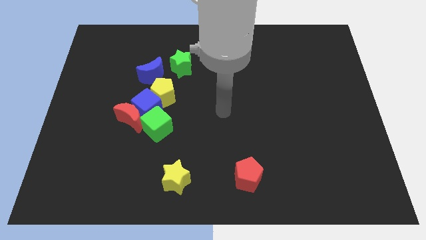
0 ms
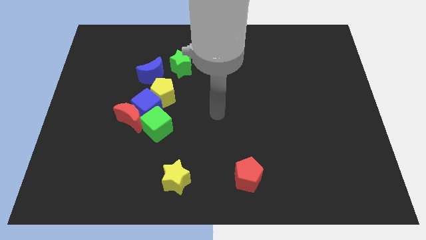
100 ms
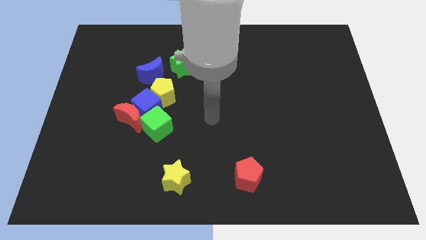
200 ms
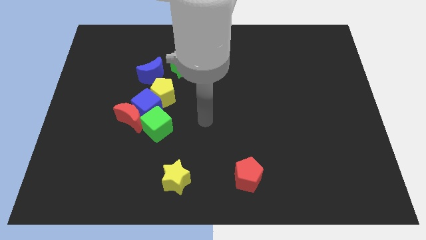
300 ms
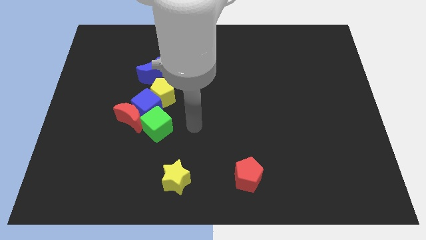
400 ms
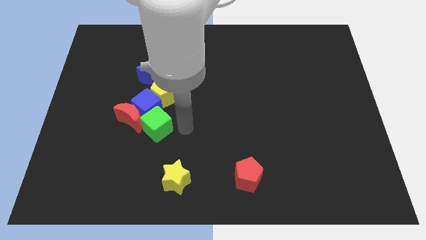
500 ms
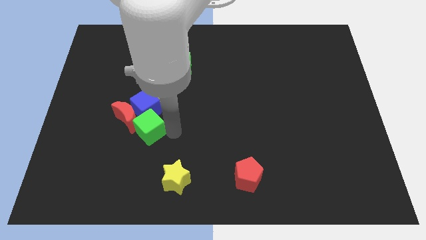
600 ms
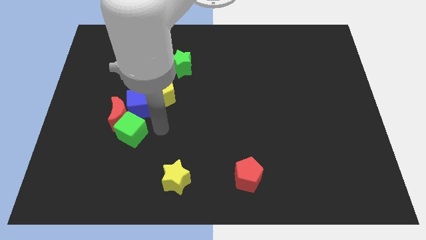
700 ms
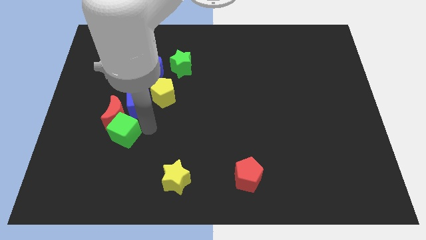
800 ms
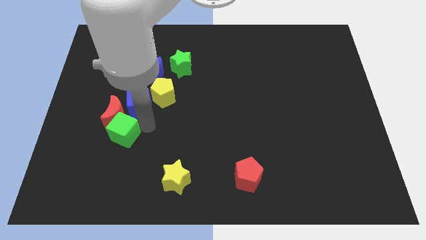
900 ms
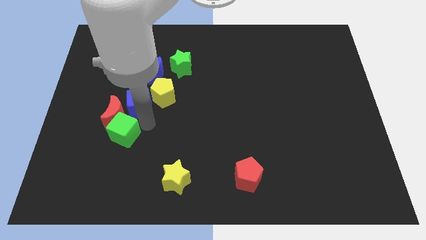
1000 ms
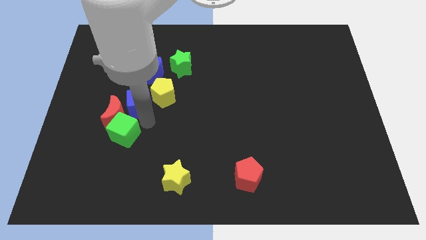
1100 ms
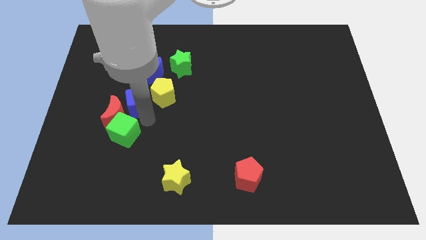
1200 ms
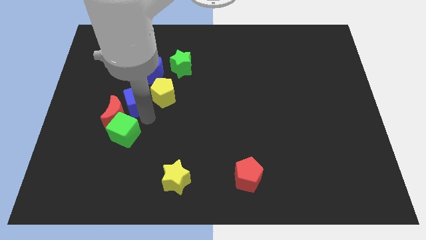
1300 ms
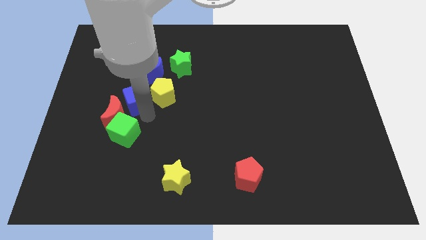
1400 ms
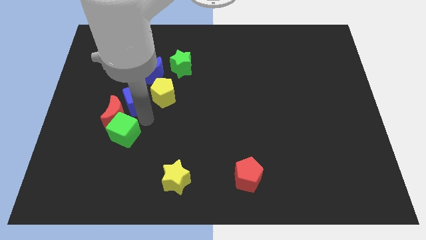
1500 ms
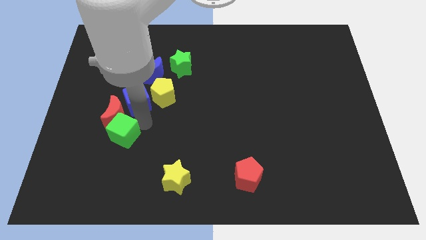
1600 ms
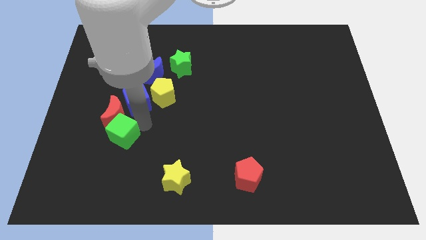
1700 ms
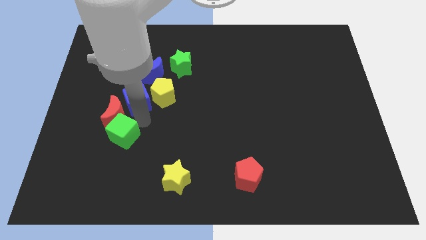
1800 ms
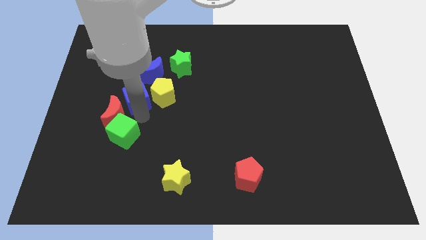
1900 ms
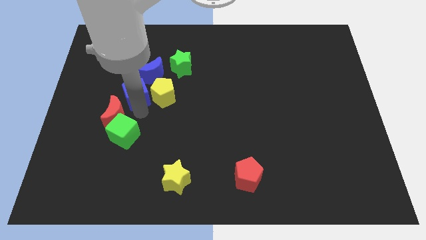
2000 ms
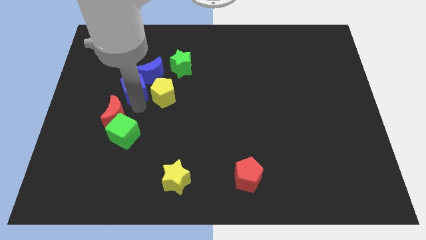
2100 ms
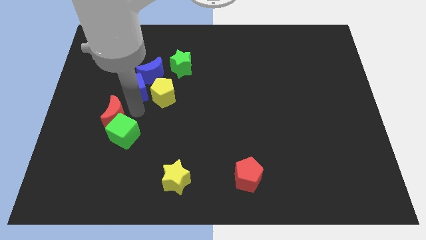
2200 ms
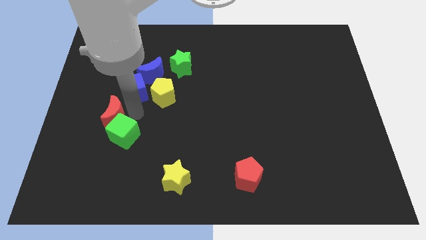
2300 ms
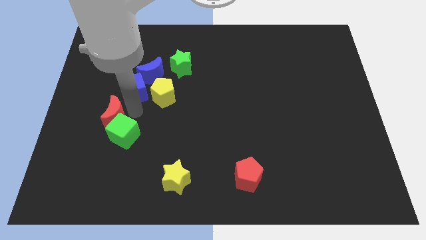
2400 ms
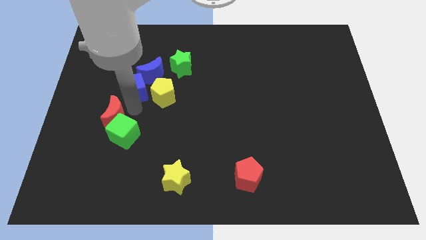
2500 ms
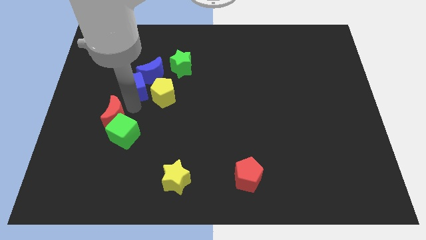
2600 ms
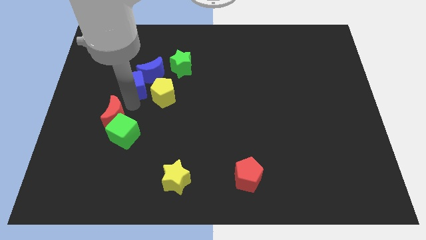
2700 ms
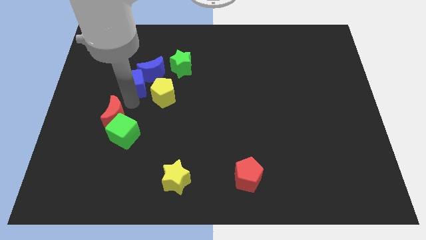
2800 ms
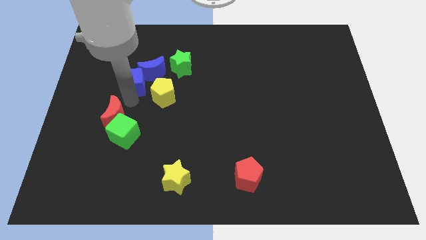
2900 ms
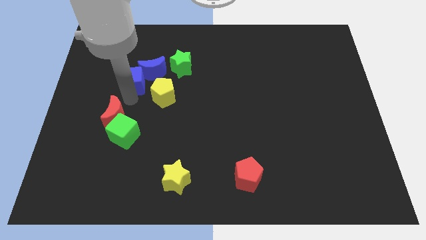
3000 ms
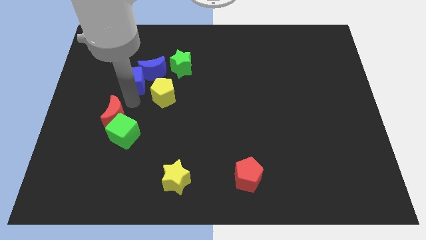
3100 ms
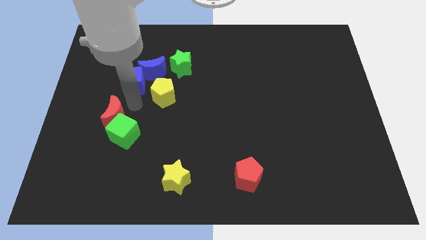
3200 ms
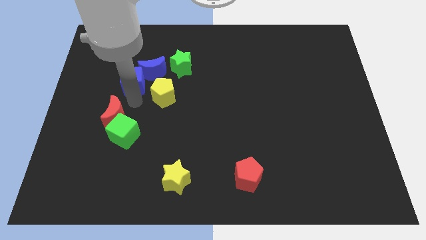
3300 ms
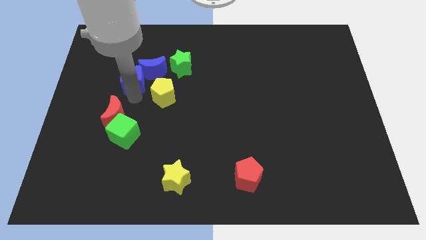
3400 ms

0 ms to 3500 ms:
move the blue cube away from the clump

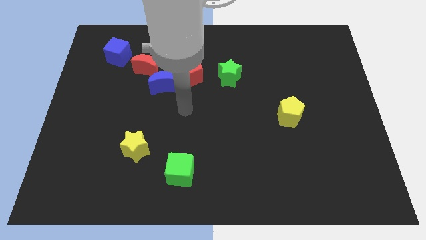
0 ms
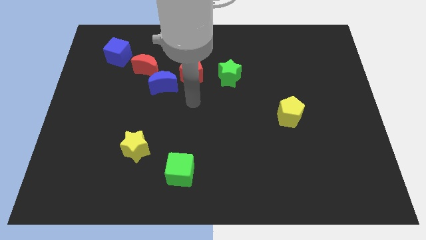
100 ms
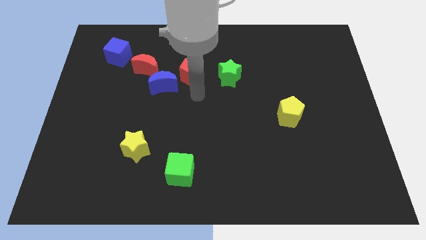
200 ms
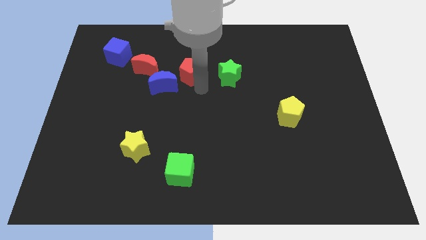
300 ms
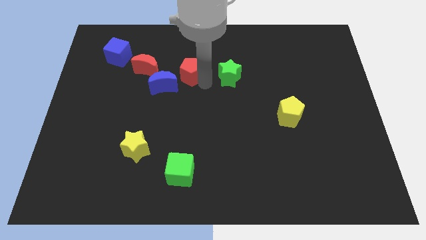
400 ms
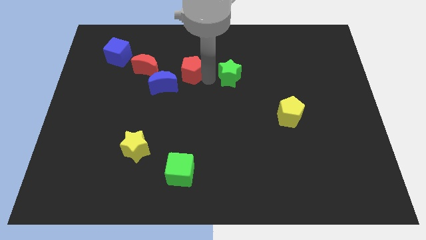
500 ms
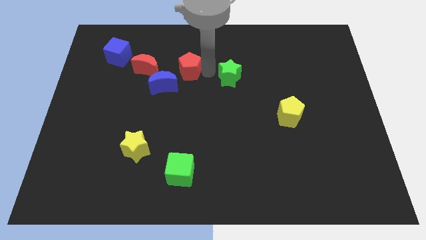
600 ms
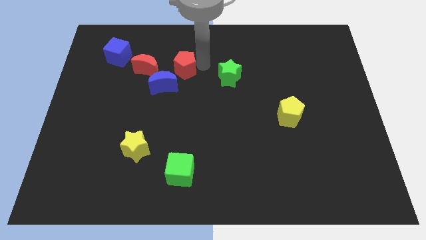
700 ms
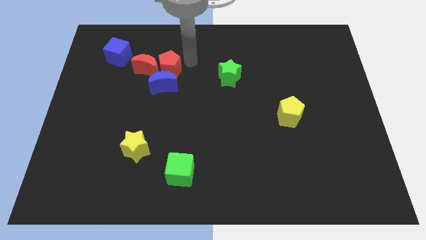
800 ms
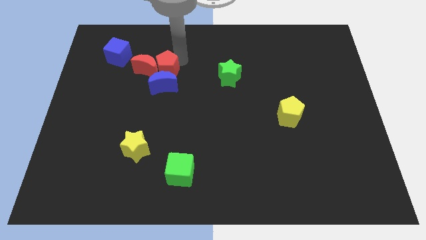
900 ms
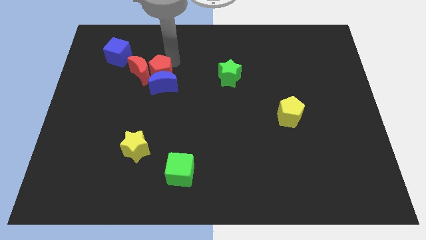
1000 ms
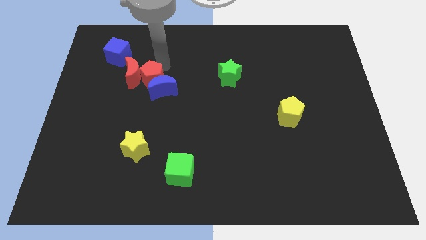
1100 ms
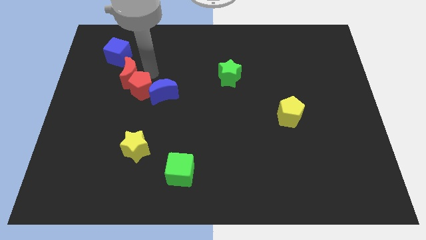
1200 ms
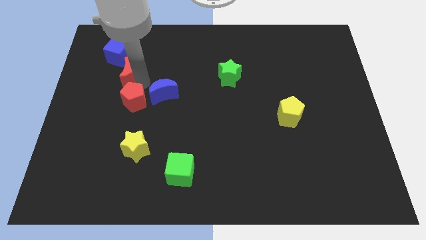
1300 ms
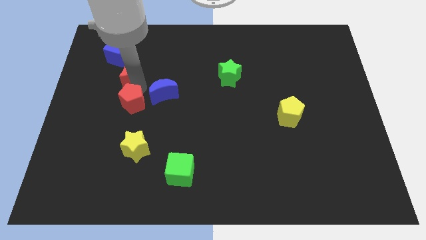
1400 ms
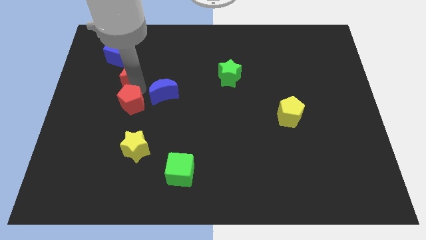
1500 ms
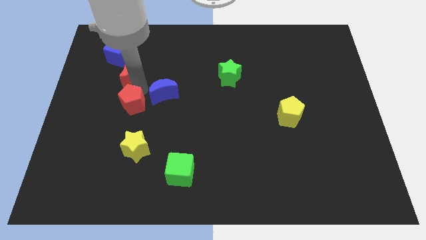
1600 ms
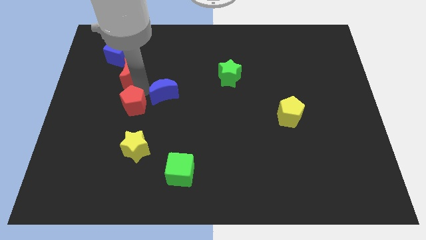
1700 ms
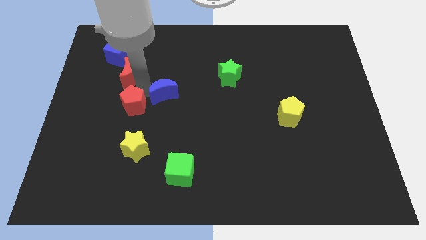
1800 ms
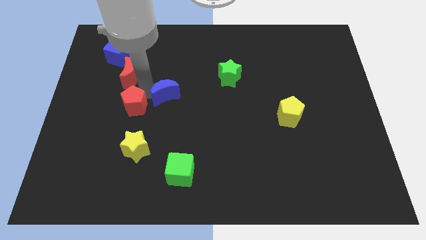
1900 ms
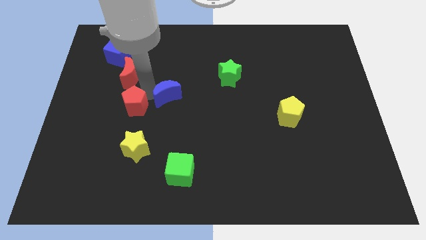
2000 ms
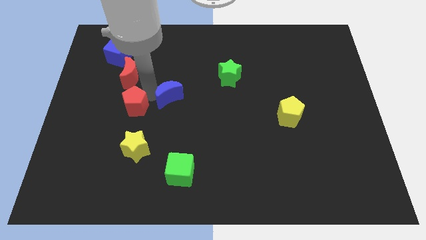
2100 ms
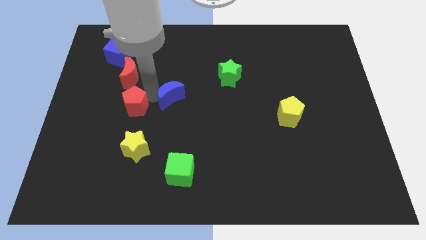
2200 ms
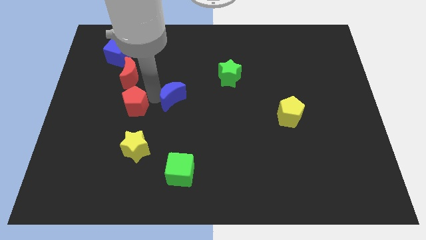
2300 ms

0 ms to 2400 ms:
pull the blue moon apart from the red moon and red pentagon

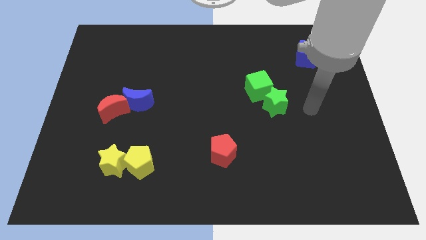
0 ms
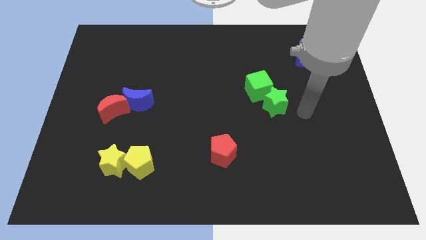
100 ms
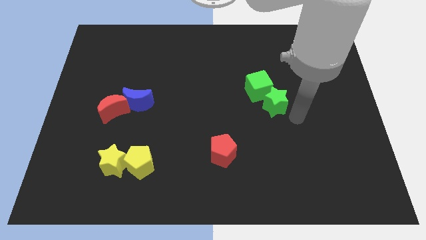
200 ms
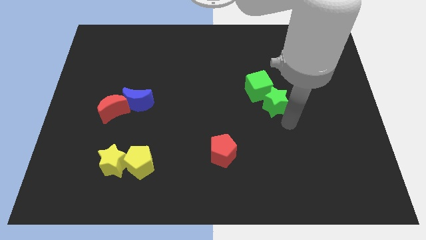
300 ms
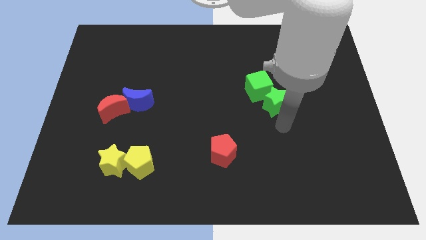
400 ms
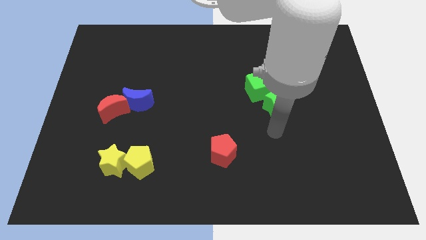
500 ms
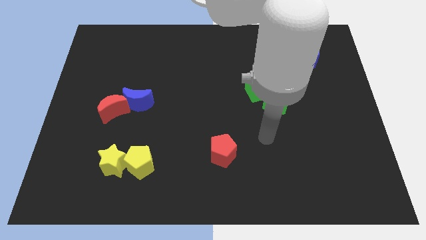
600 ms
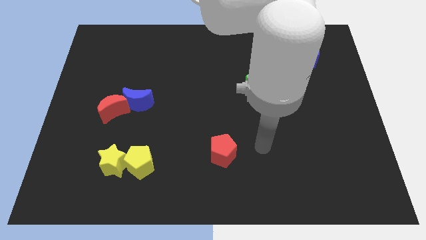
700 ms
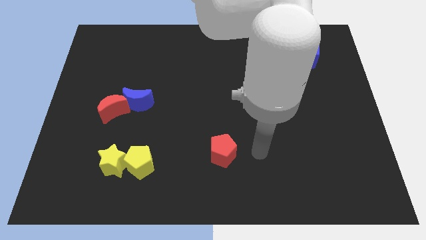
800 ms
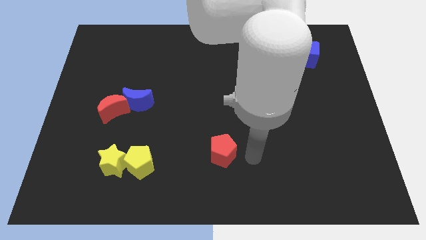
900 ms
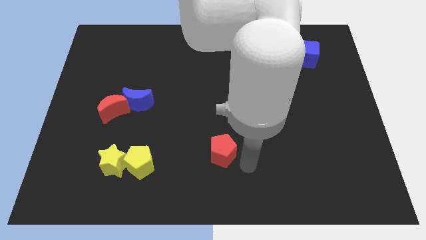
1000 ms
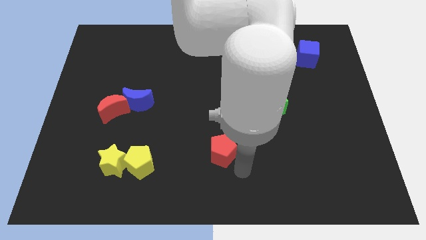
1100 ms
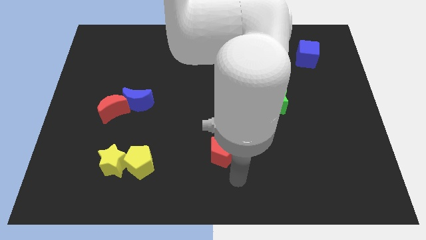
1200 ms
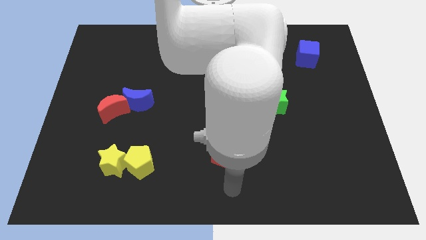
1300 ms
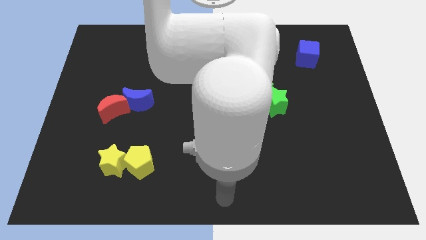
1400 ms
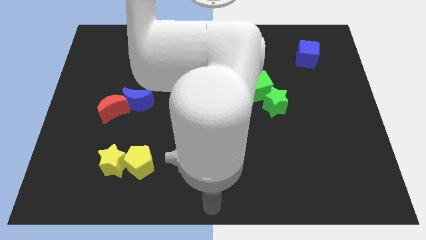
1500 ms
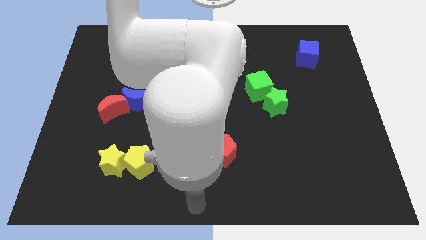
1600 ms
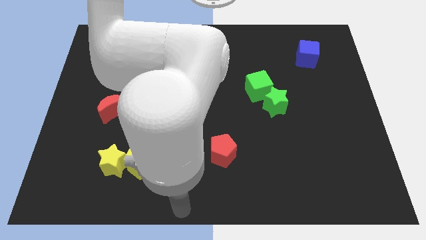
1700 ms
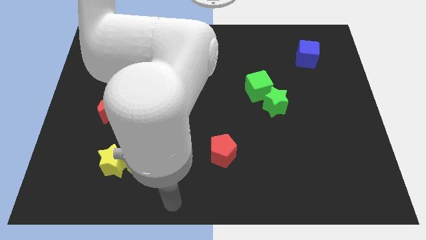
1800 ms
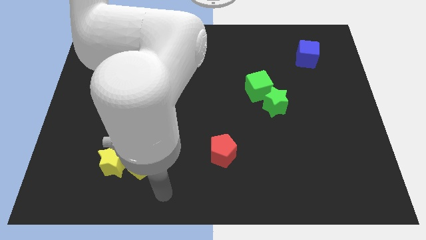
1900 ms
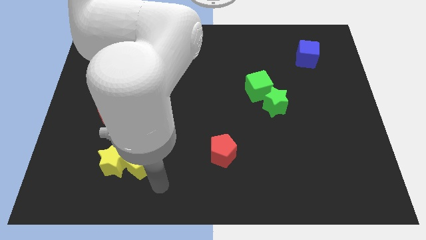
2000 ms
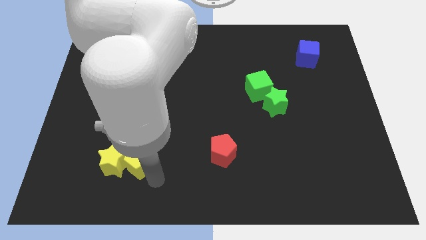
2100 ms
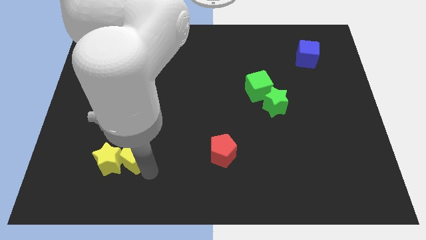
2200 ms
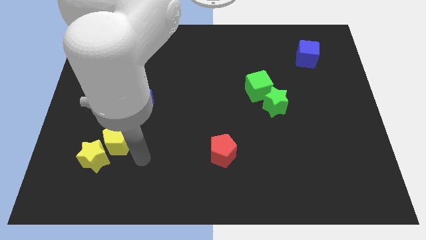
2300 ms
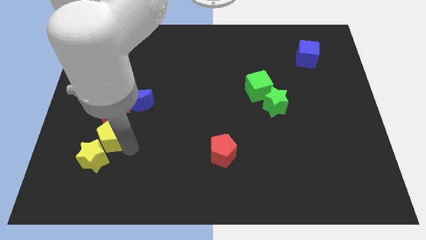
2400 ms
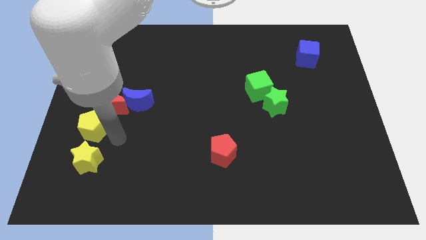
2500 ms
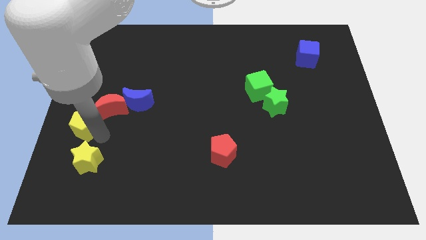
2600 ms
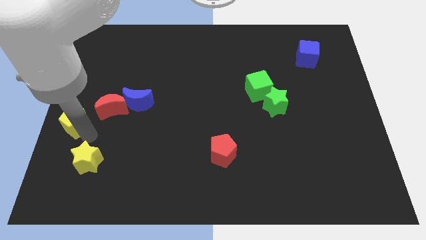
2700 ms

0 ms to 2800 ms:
move the yellow star away from the yellow pentagon

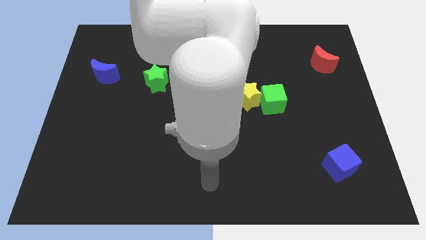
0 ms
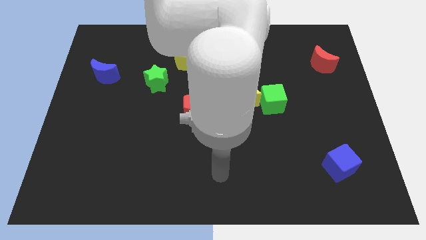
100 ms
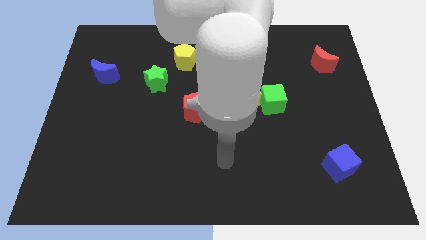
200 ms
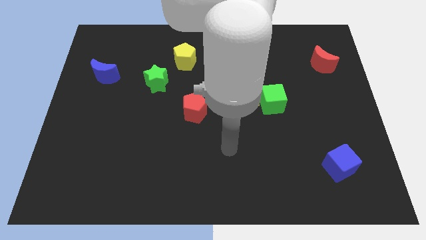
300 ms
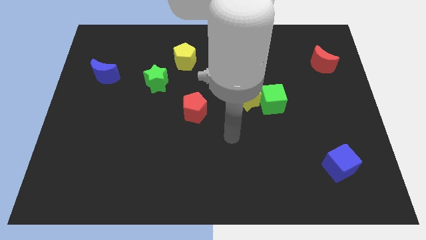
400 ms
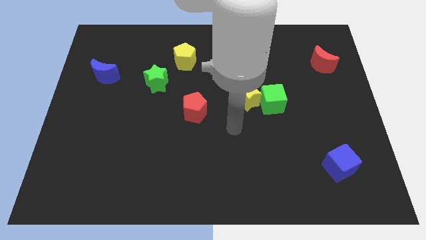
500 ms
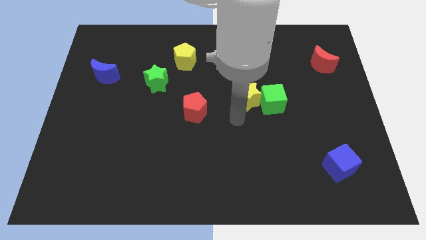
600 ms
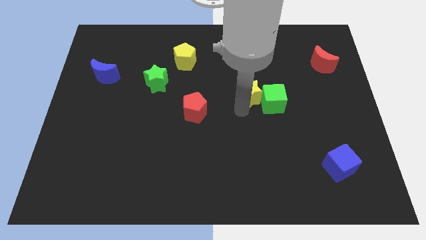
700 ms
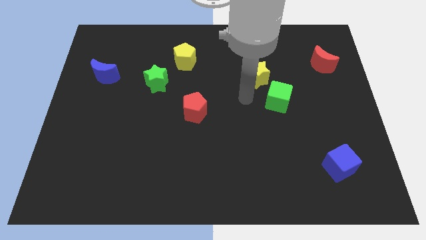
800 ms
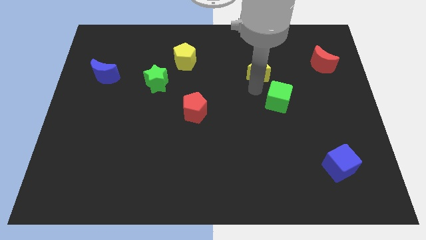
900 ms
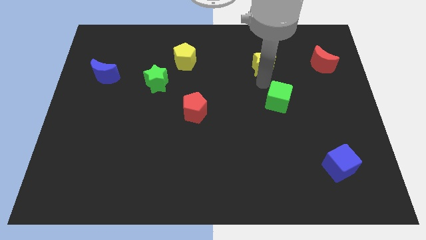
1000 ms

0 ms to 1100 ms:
move the green cube away from the yellow star
